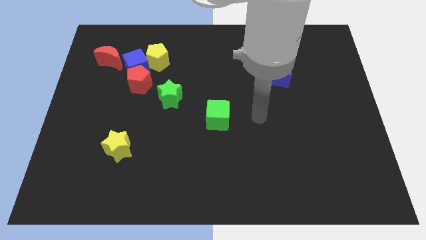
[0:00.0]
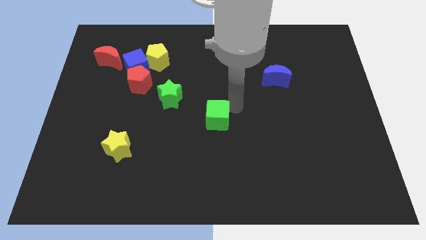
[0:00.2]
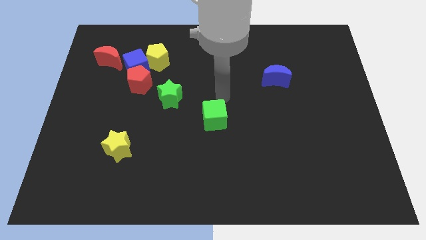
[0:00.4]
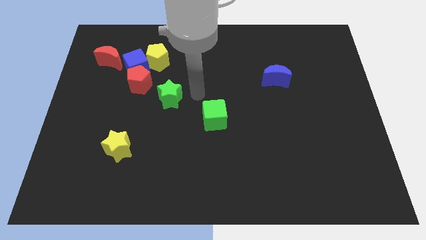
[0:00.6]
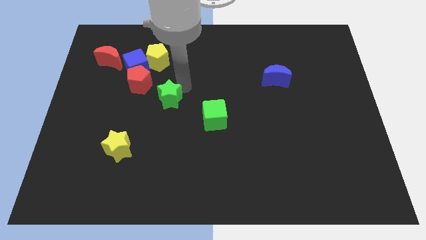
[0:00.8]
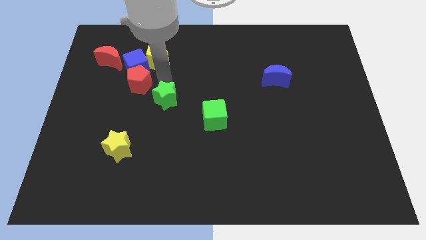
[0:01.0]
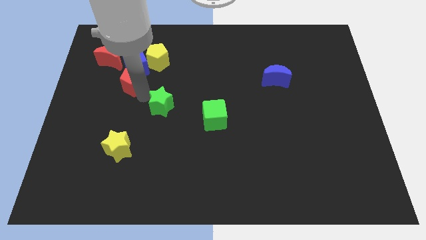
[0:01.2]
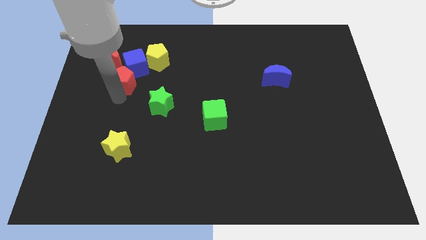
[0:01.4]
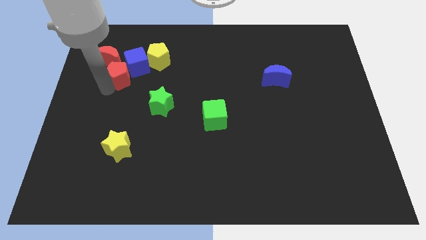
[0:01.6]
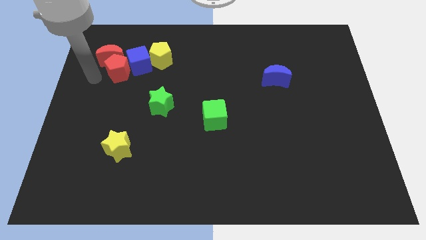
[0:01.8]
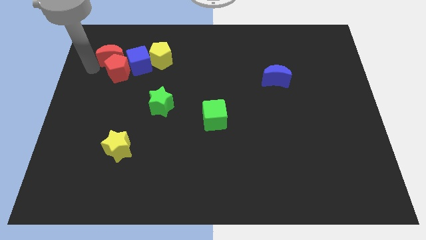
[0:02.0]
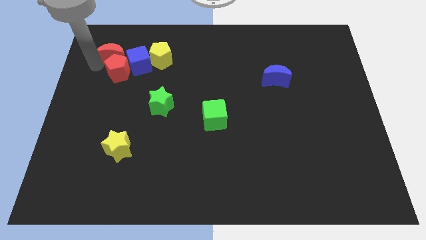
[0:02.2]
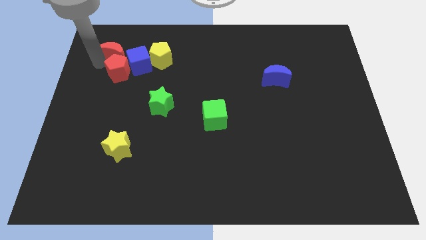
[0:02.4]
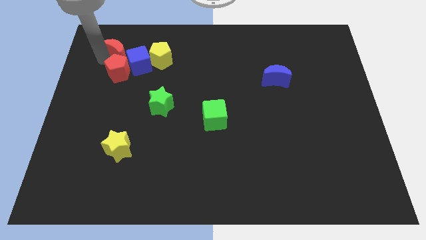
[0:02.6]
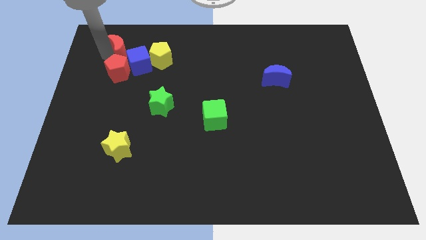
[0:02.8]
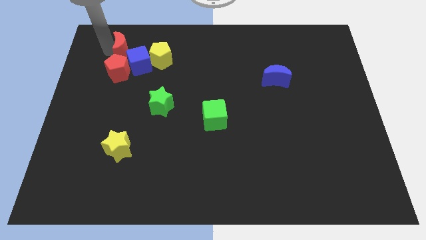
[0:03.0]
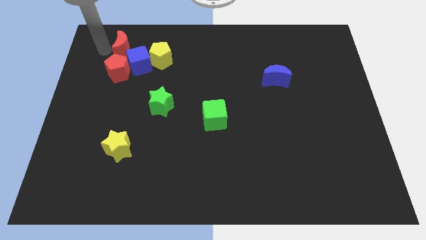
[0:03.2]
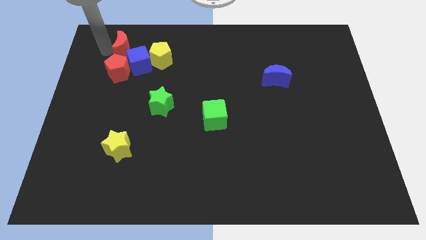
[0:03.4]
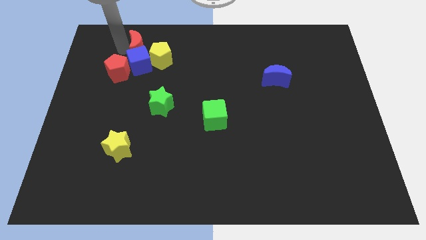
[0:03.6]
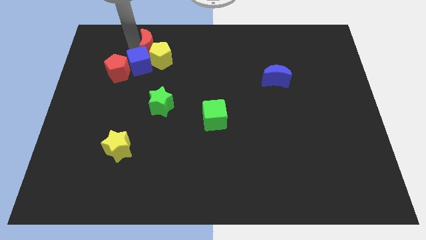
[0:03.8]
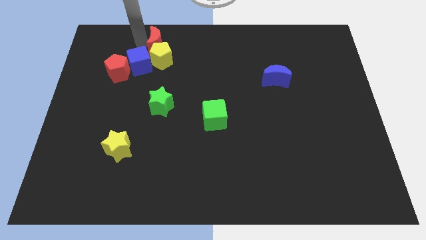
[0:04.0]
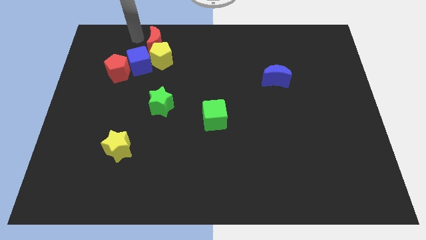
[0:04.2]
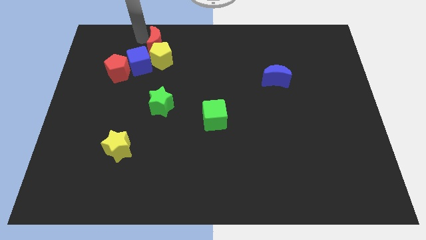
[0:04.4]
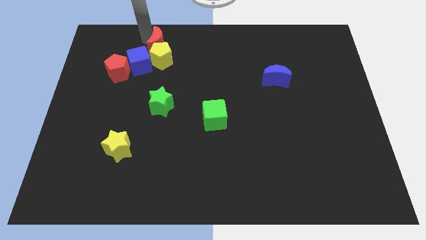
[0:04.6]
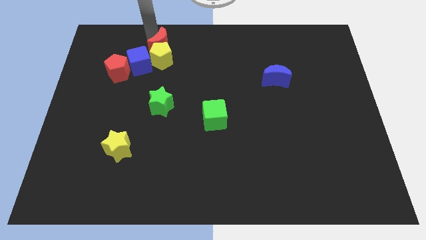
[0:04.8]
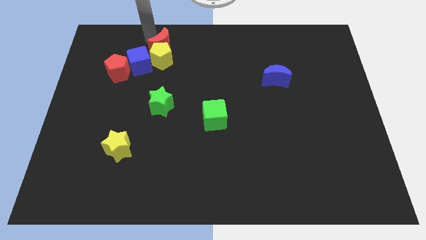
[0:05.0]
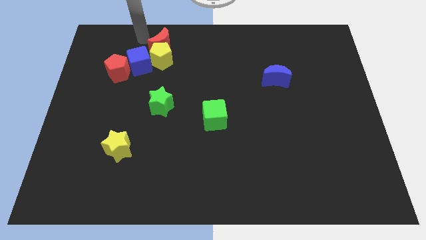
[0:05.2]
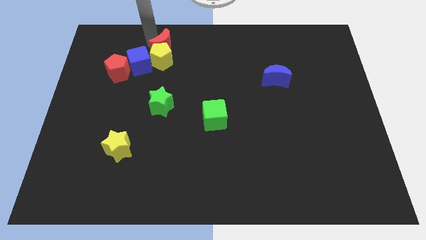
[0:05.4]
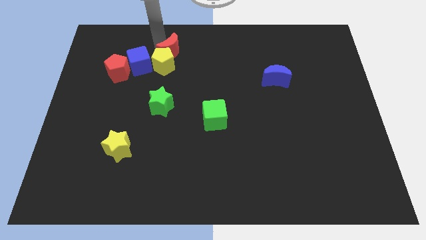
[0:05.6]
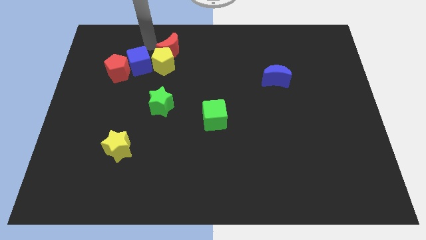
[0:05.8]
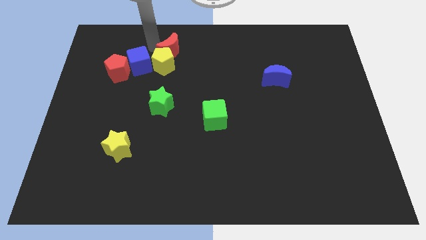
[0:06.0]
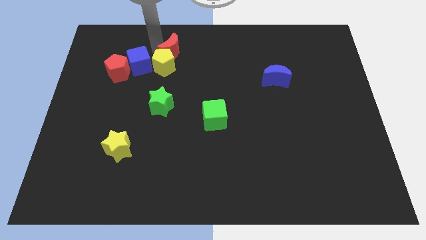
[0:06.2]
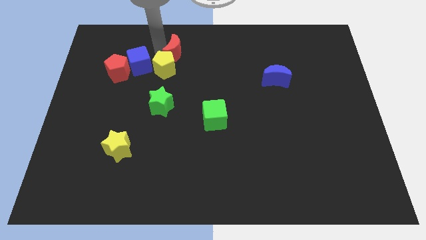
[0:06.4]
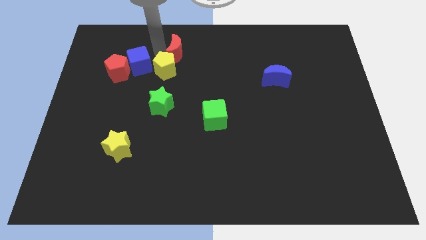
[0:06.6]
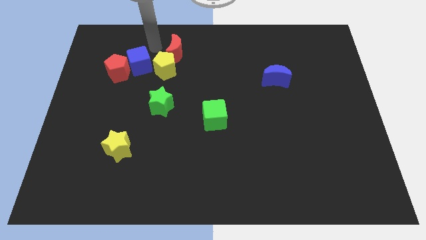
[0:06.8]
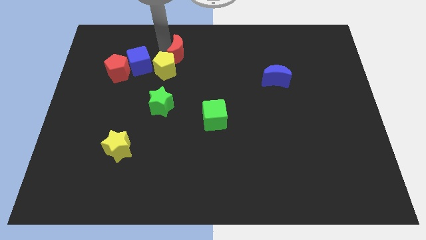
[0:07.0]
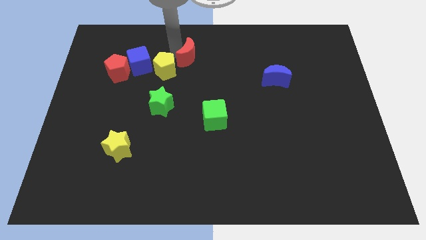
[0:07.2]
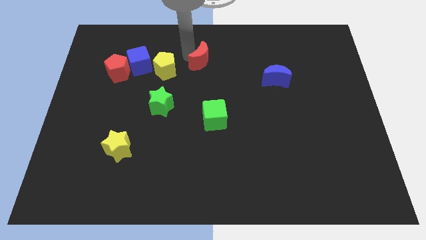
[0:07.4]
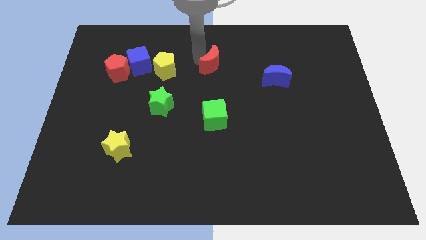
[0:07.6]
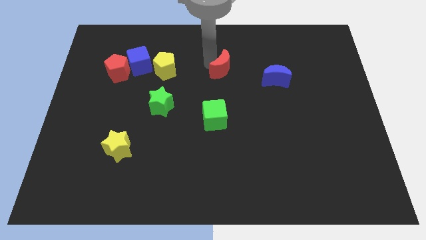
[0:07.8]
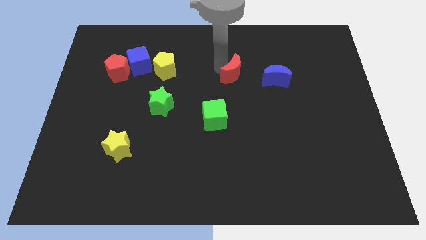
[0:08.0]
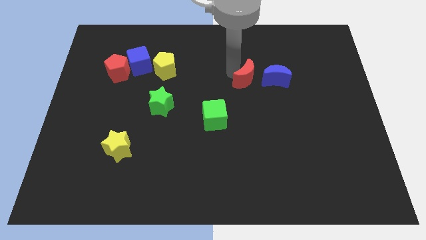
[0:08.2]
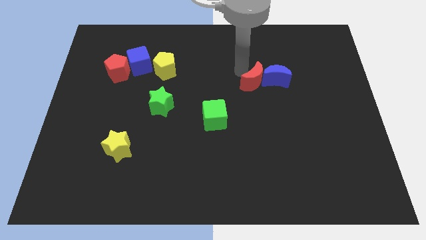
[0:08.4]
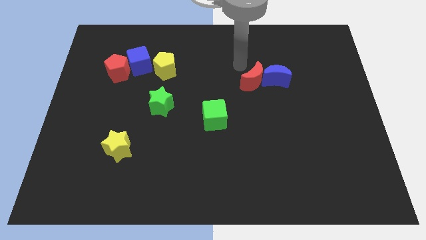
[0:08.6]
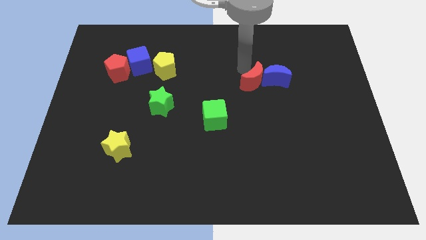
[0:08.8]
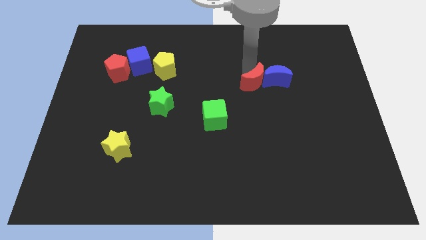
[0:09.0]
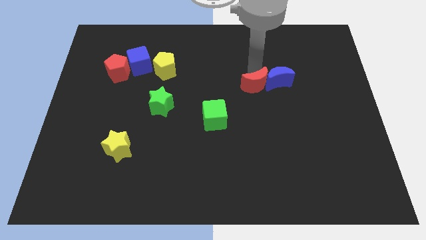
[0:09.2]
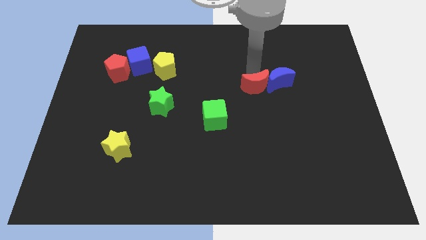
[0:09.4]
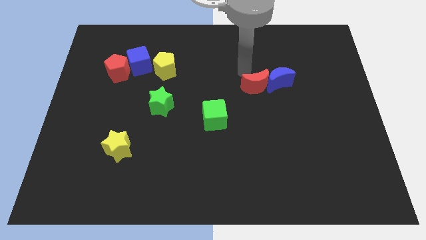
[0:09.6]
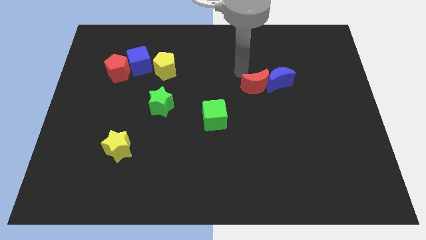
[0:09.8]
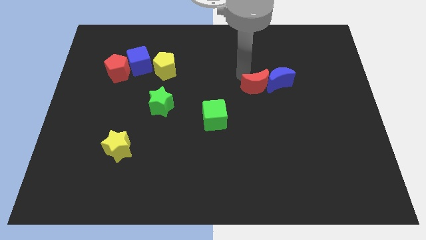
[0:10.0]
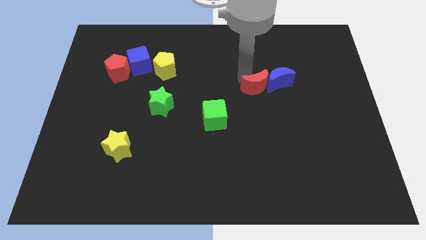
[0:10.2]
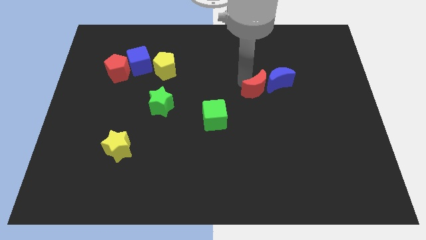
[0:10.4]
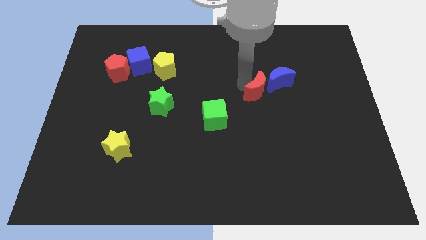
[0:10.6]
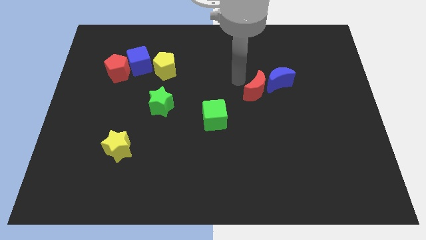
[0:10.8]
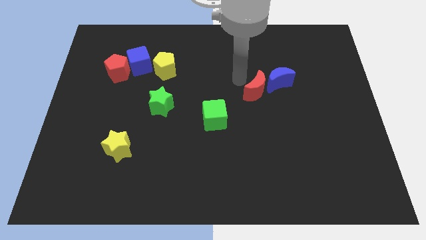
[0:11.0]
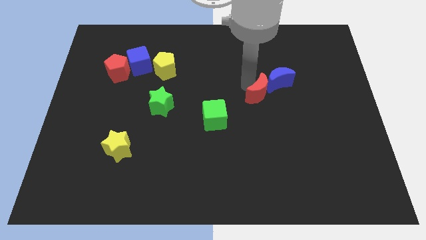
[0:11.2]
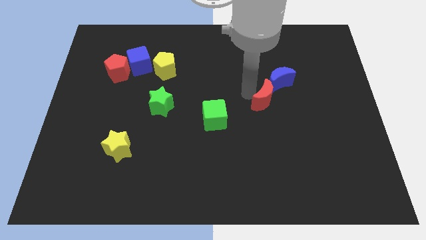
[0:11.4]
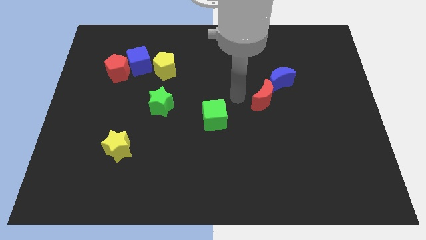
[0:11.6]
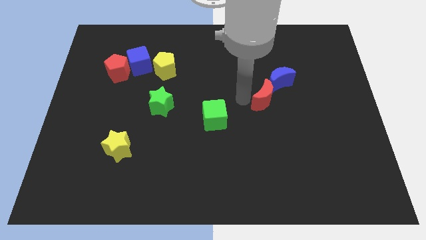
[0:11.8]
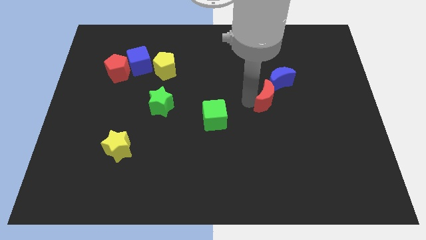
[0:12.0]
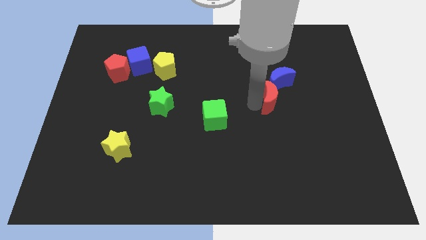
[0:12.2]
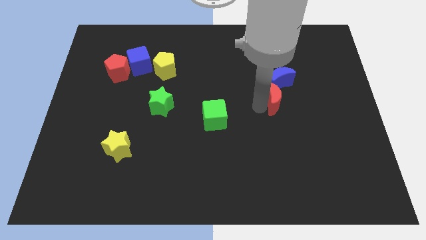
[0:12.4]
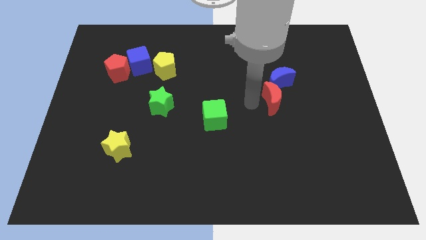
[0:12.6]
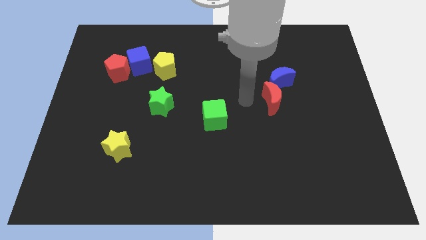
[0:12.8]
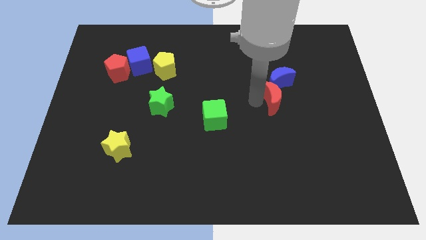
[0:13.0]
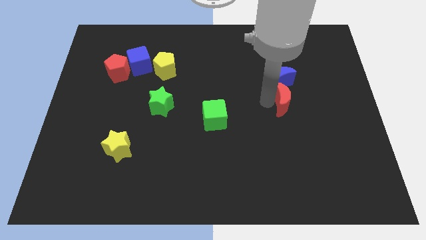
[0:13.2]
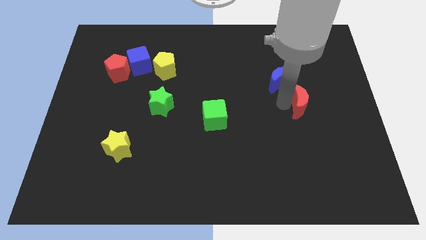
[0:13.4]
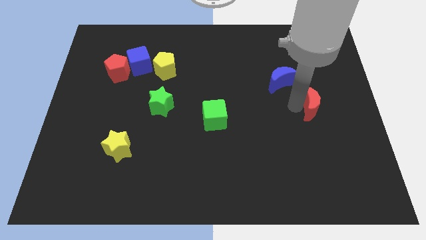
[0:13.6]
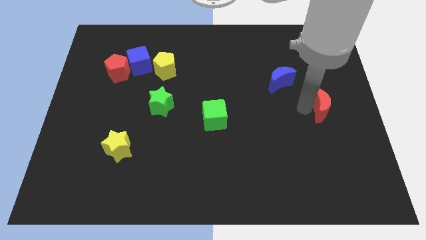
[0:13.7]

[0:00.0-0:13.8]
slide the red moon to the center right
